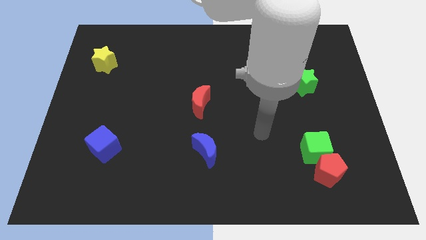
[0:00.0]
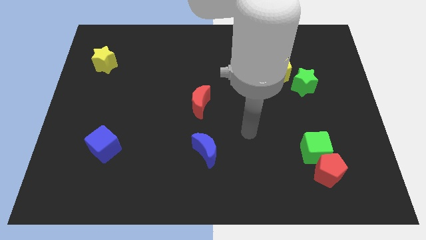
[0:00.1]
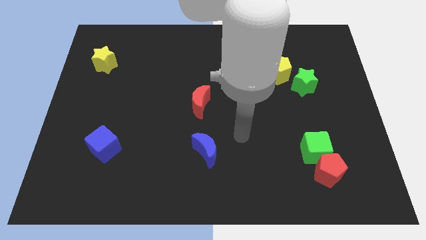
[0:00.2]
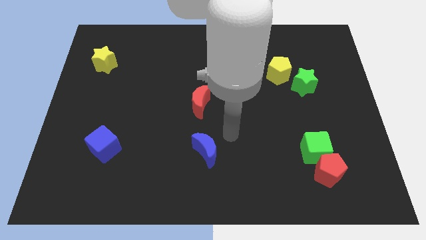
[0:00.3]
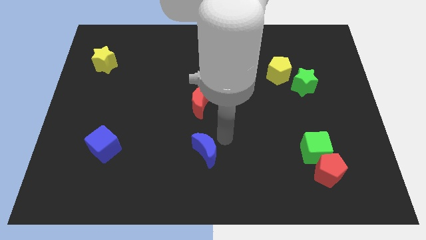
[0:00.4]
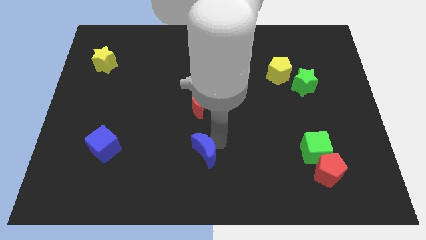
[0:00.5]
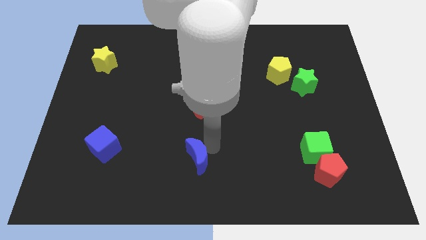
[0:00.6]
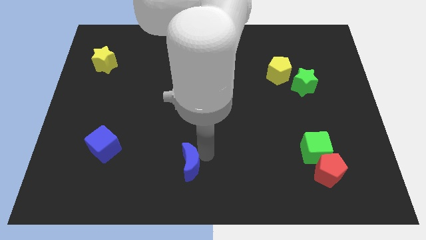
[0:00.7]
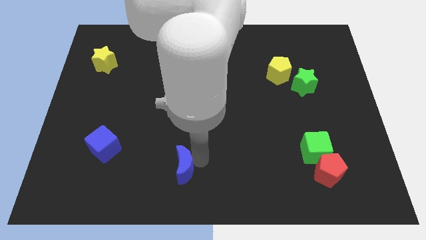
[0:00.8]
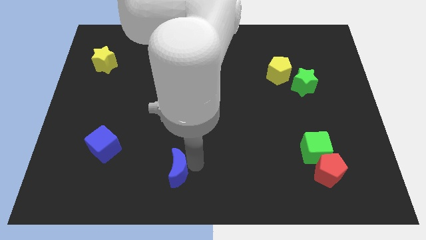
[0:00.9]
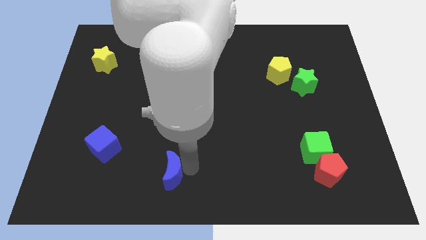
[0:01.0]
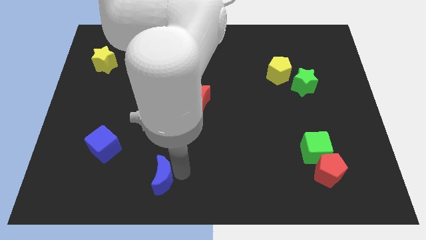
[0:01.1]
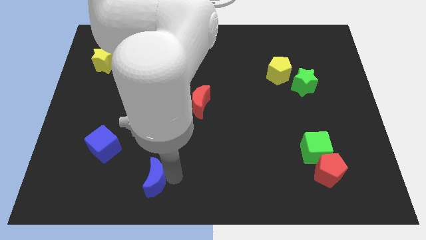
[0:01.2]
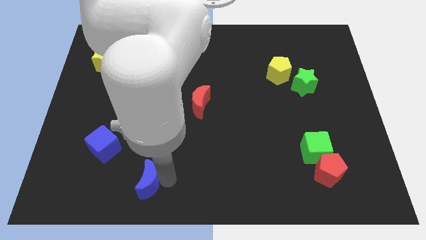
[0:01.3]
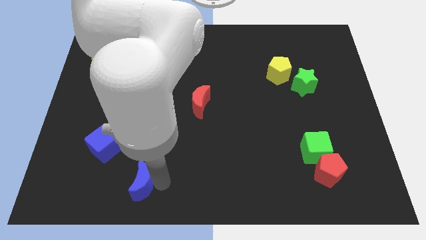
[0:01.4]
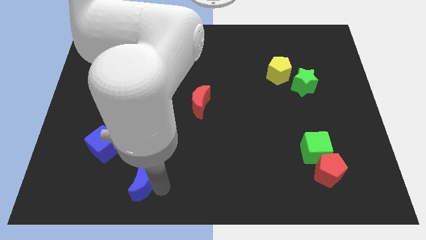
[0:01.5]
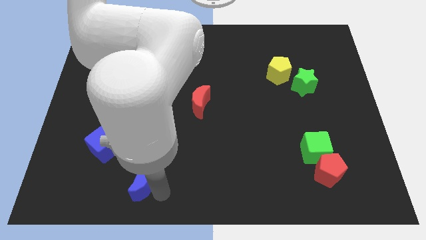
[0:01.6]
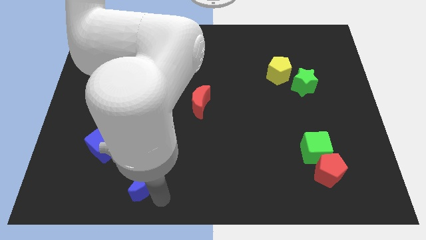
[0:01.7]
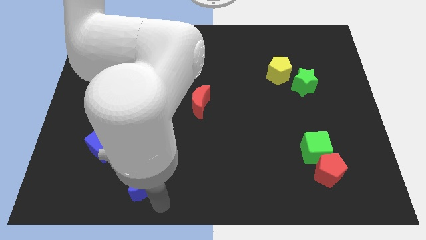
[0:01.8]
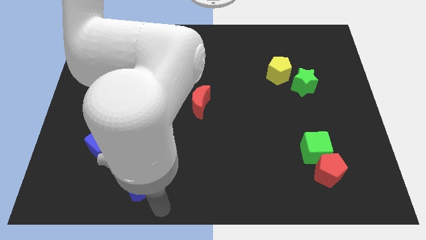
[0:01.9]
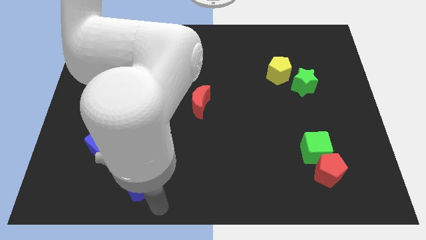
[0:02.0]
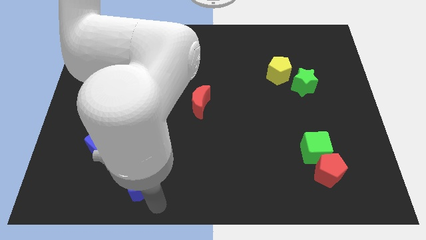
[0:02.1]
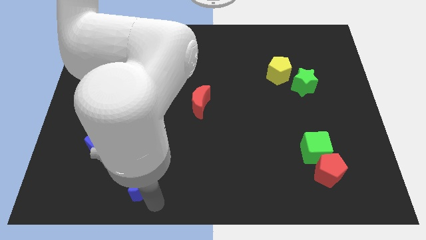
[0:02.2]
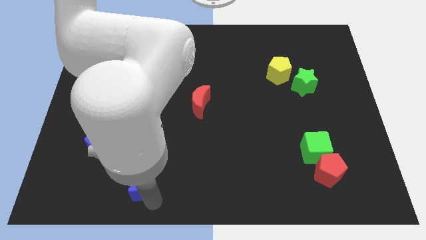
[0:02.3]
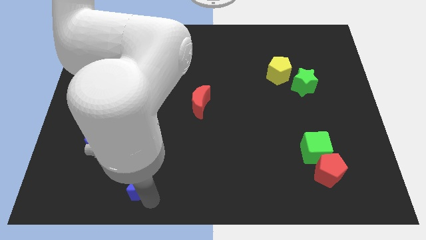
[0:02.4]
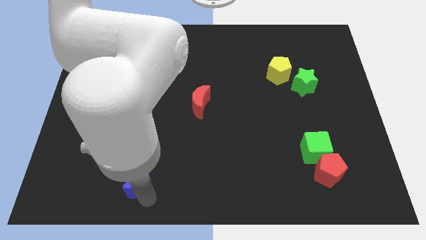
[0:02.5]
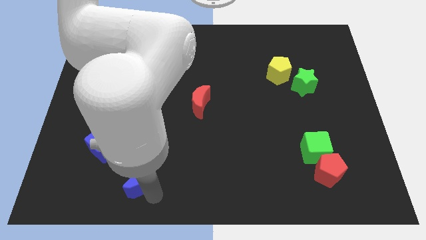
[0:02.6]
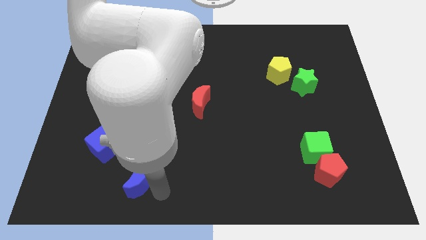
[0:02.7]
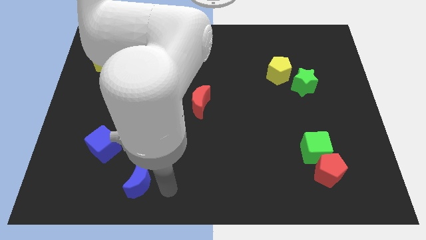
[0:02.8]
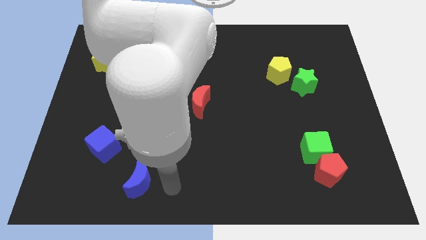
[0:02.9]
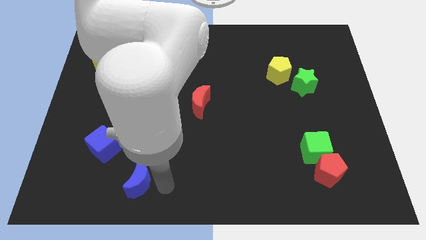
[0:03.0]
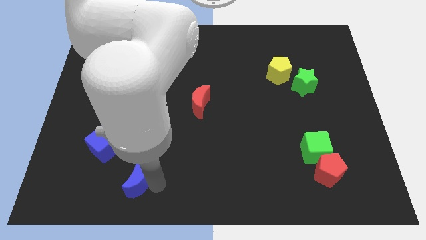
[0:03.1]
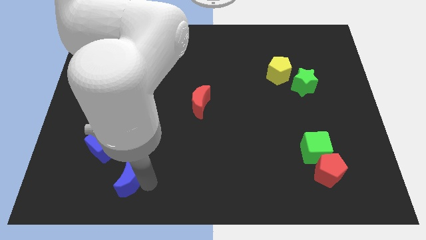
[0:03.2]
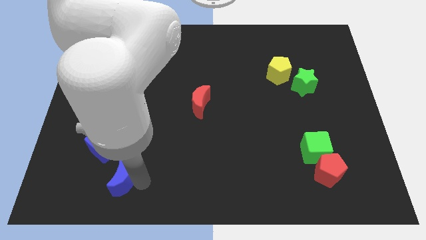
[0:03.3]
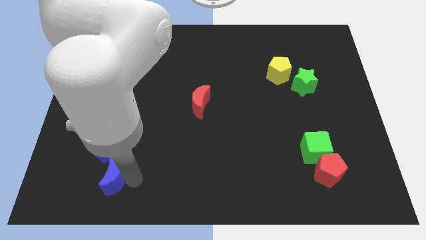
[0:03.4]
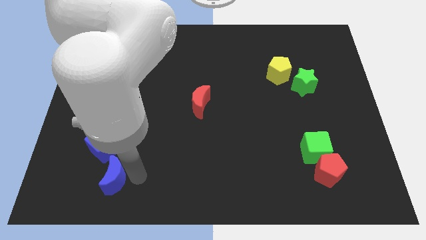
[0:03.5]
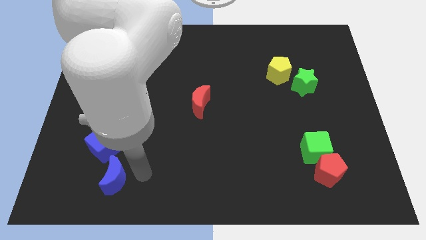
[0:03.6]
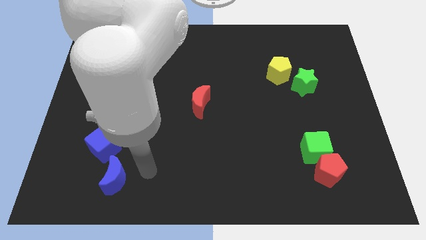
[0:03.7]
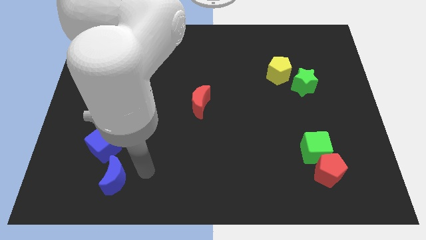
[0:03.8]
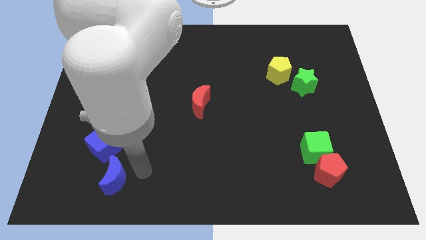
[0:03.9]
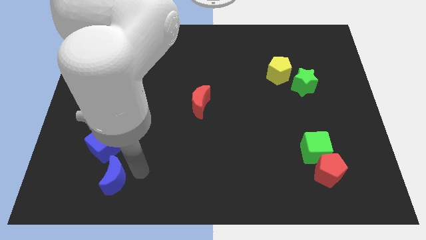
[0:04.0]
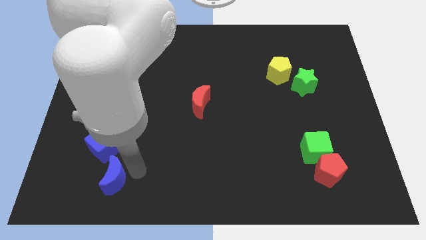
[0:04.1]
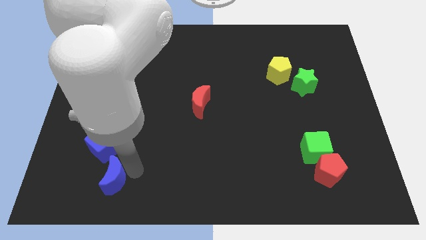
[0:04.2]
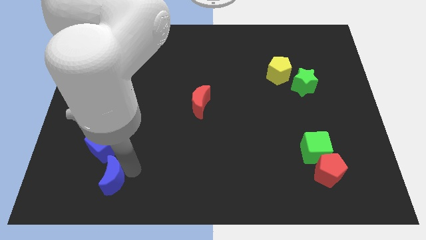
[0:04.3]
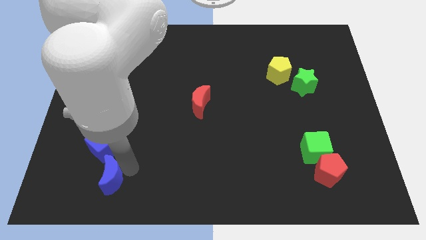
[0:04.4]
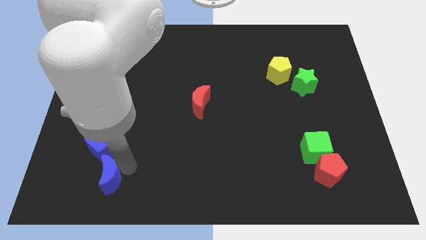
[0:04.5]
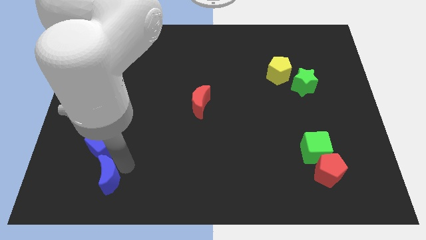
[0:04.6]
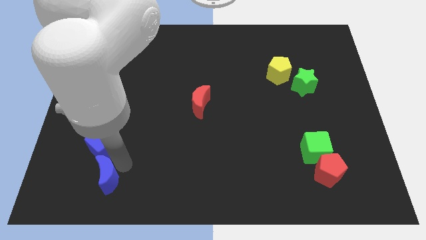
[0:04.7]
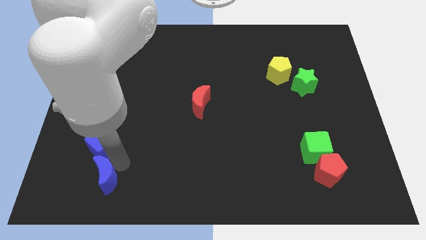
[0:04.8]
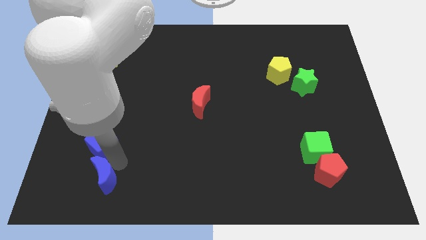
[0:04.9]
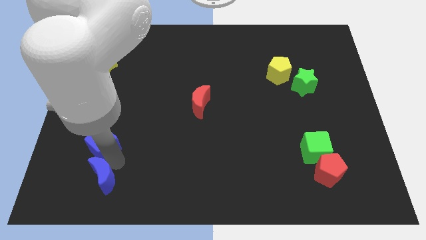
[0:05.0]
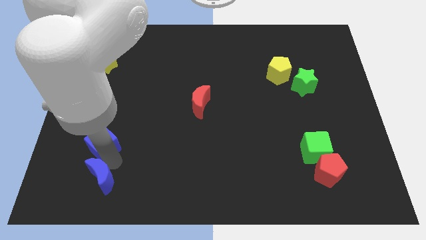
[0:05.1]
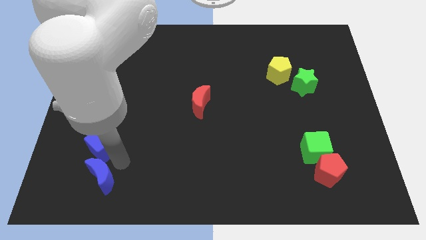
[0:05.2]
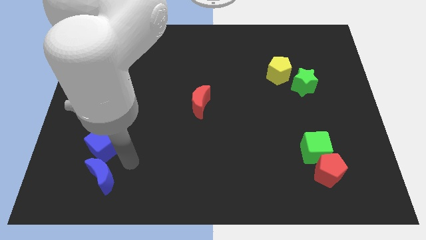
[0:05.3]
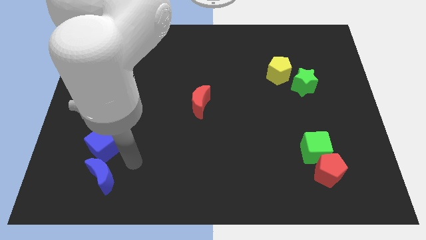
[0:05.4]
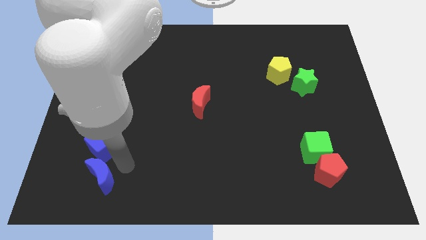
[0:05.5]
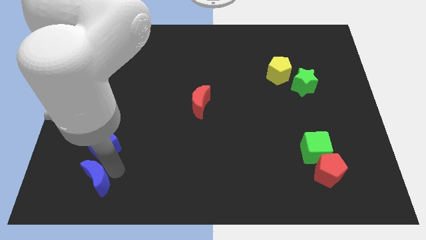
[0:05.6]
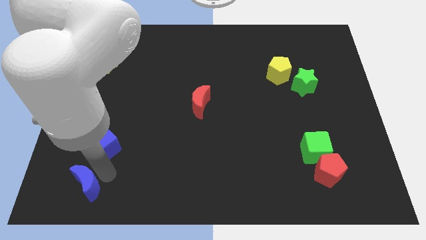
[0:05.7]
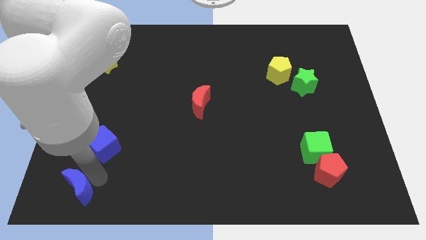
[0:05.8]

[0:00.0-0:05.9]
put the blue moon to the bottom left

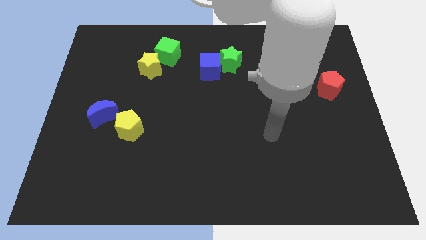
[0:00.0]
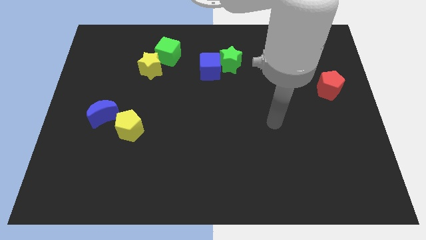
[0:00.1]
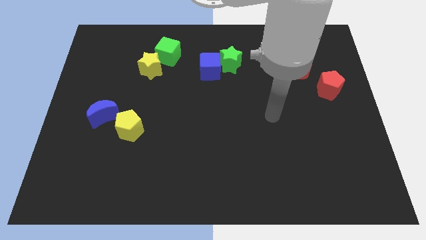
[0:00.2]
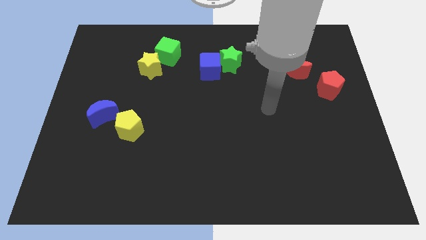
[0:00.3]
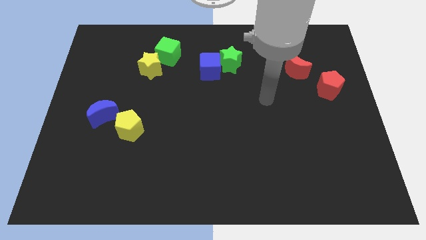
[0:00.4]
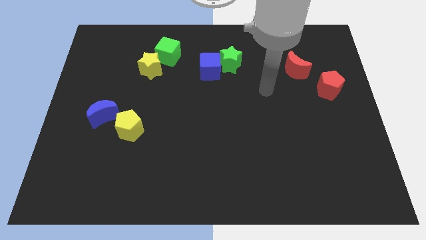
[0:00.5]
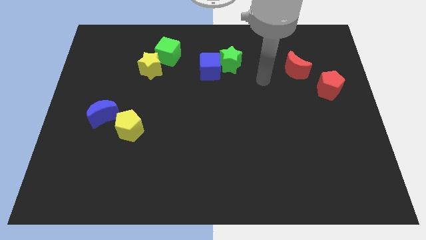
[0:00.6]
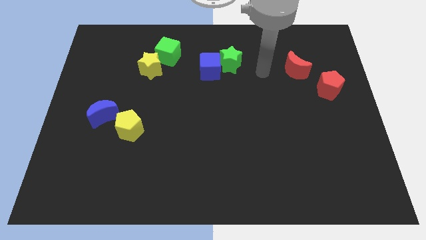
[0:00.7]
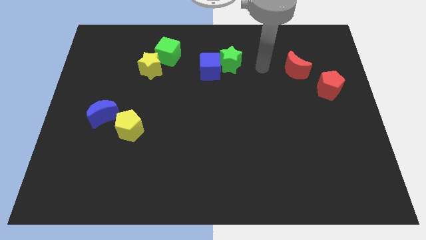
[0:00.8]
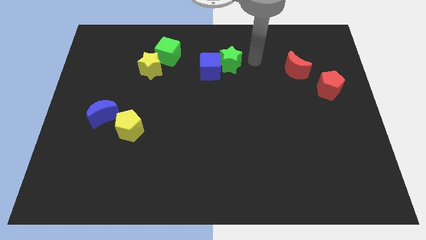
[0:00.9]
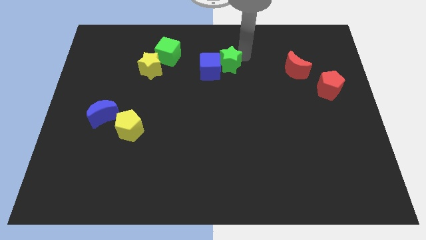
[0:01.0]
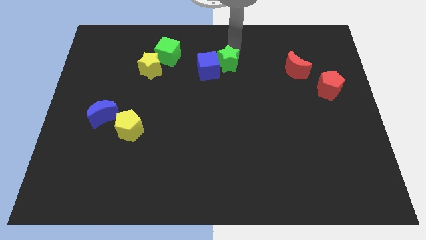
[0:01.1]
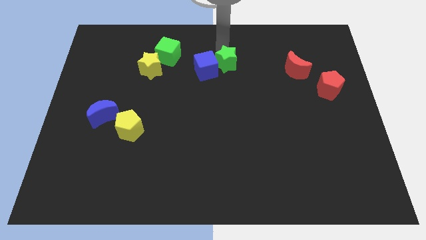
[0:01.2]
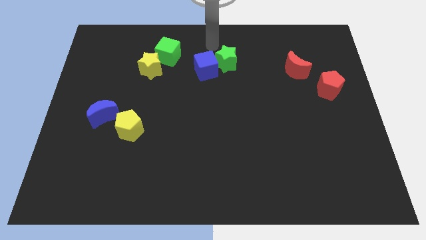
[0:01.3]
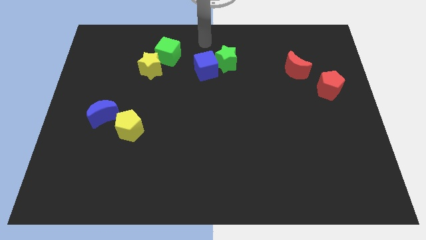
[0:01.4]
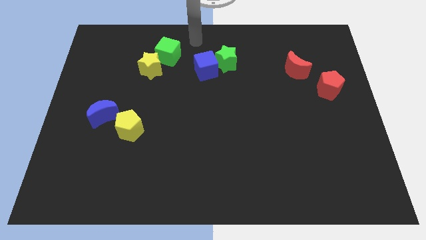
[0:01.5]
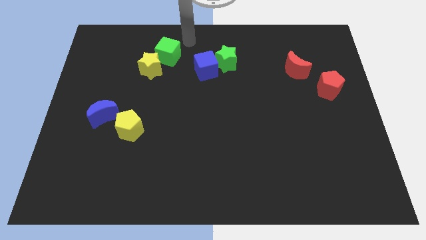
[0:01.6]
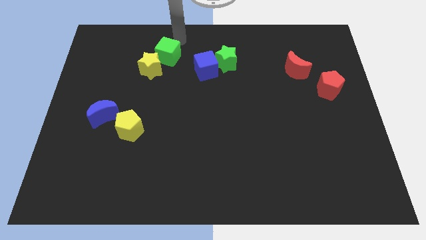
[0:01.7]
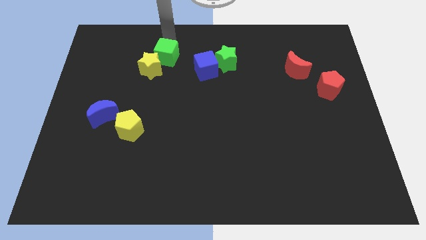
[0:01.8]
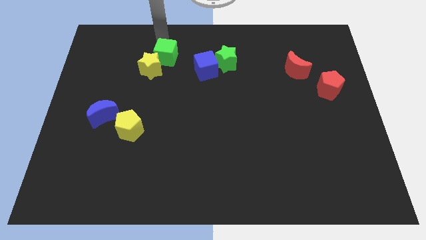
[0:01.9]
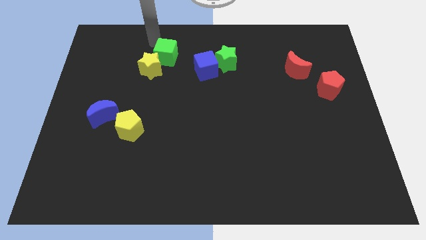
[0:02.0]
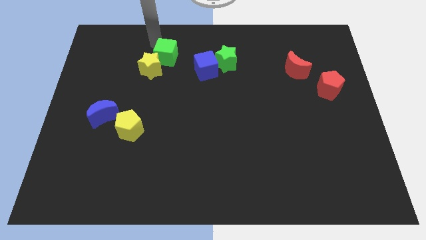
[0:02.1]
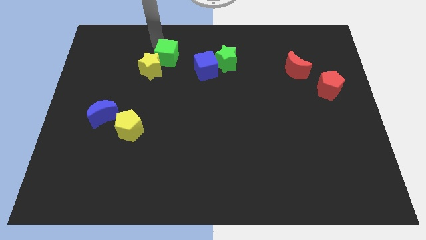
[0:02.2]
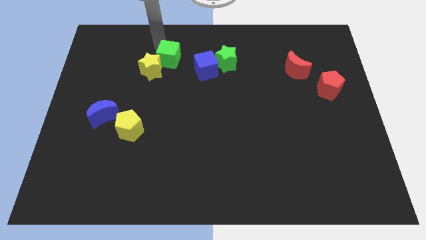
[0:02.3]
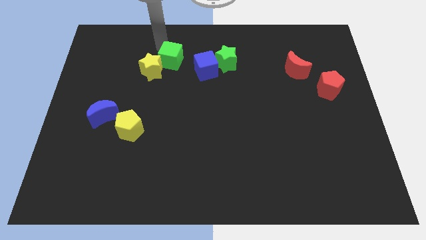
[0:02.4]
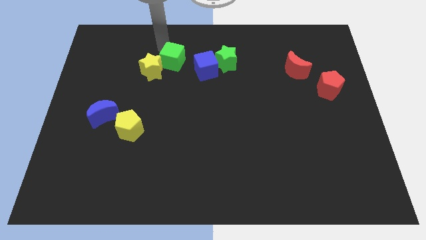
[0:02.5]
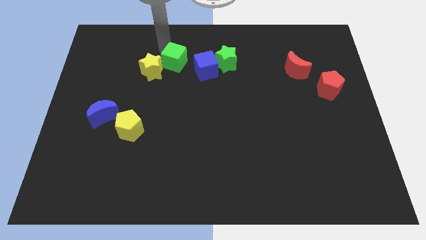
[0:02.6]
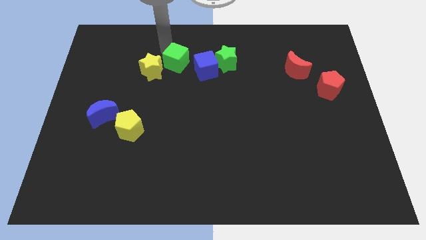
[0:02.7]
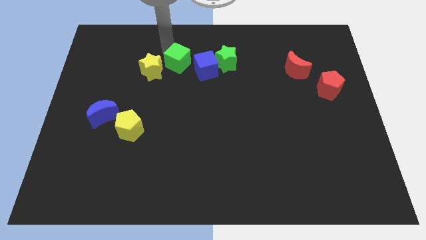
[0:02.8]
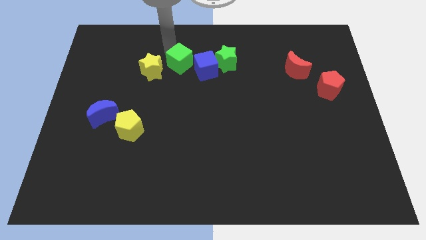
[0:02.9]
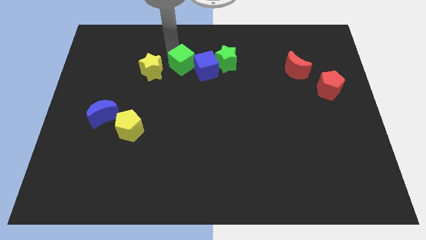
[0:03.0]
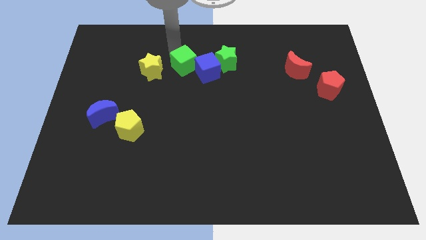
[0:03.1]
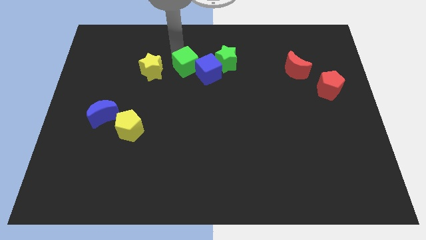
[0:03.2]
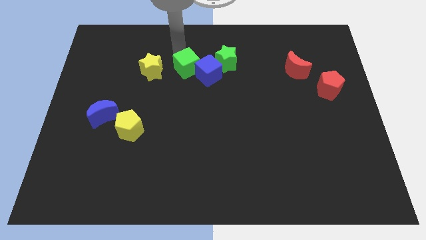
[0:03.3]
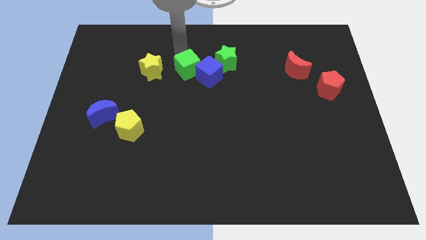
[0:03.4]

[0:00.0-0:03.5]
slide the green cube to the center of the board
